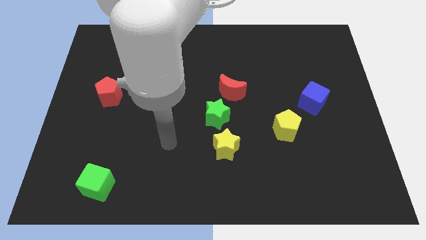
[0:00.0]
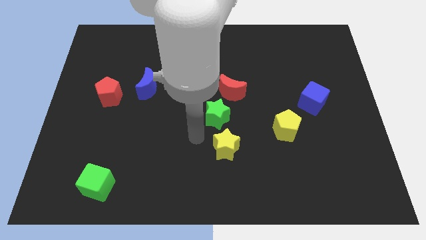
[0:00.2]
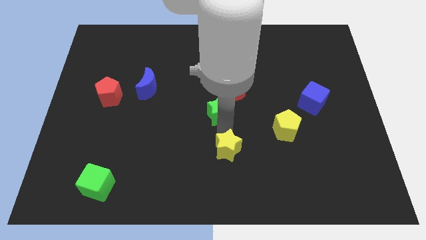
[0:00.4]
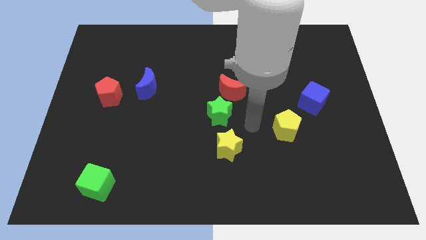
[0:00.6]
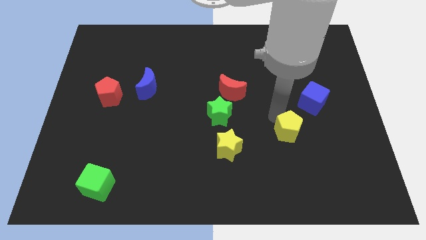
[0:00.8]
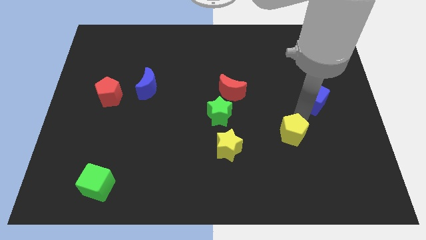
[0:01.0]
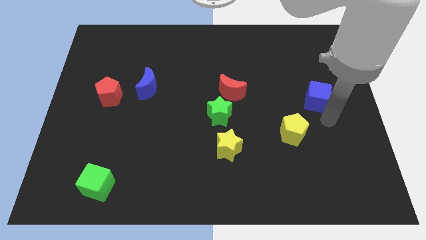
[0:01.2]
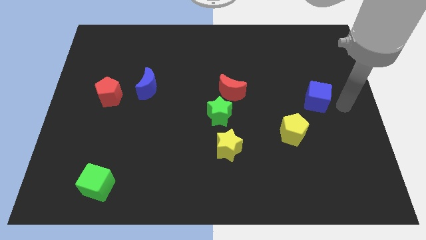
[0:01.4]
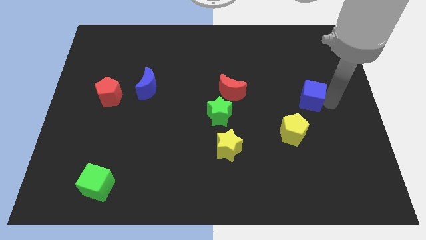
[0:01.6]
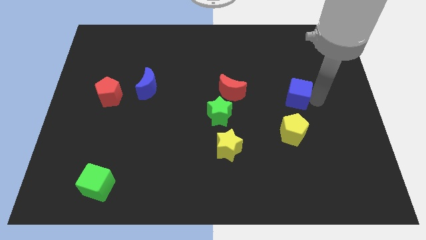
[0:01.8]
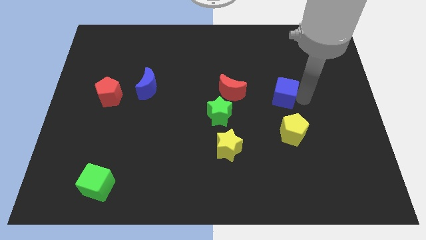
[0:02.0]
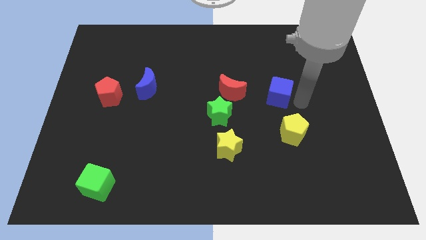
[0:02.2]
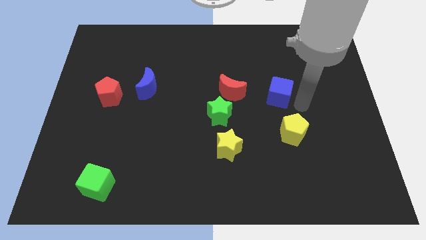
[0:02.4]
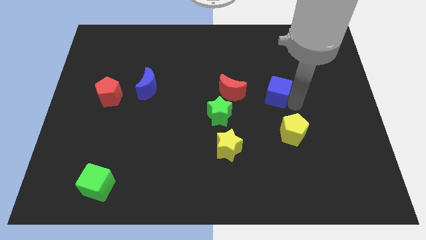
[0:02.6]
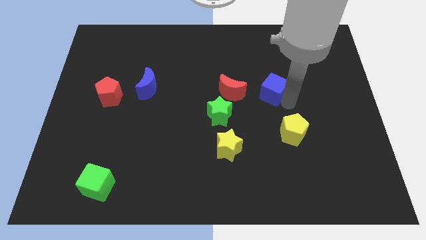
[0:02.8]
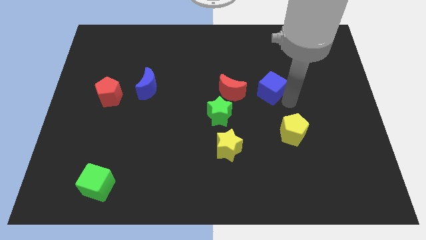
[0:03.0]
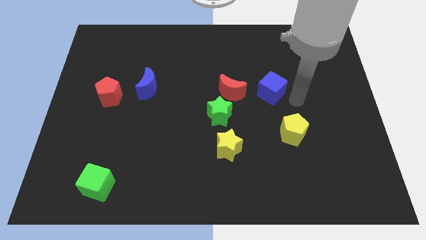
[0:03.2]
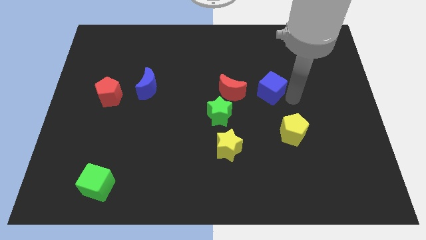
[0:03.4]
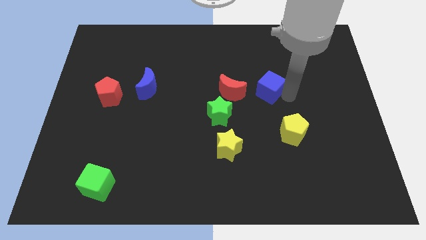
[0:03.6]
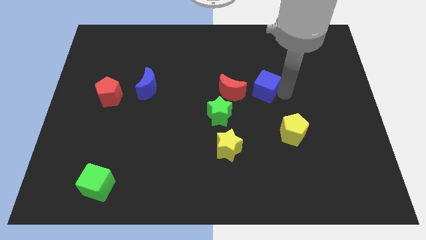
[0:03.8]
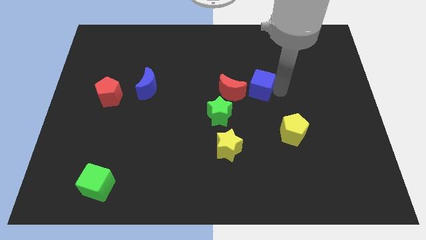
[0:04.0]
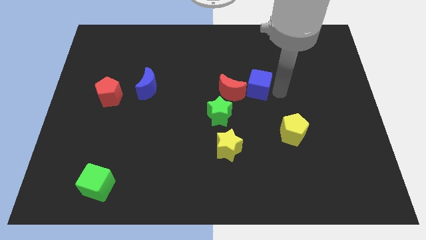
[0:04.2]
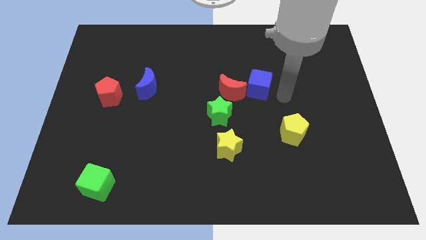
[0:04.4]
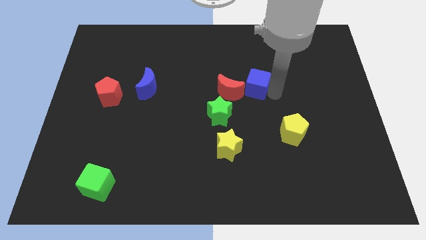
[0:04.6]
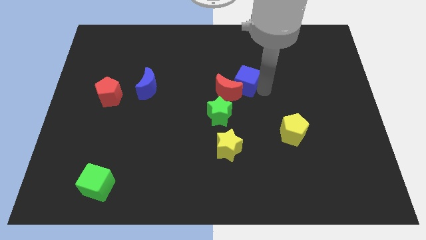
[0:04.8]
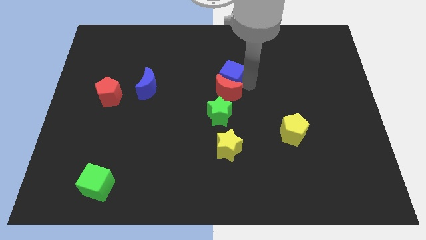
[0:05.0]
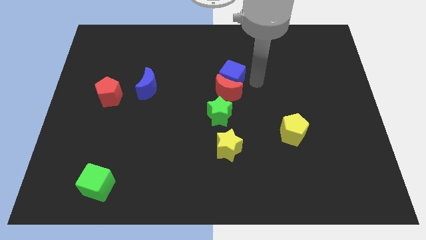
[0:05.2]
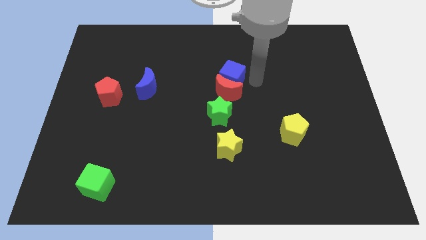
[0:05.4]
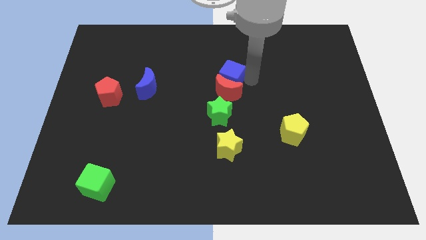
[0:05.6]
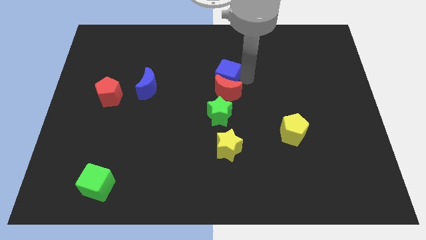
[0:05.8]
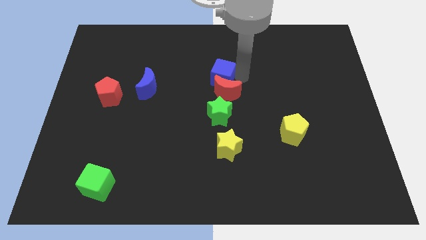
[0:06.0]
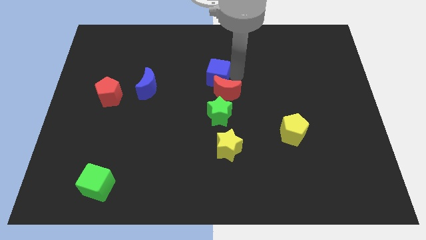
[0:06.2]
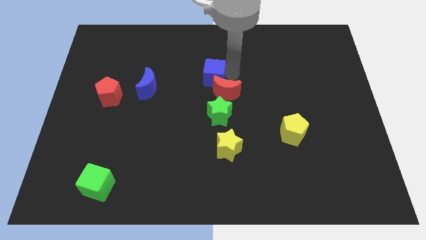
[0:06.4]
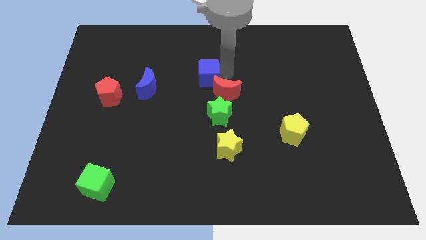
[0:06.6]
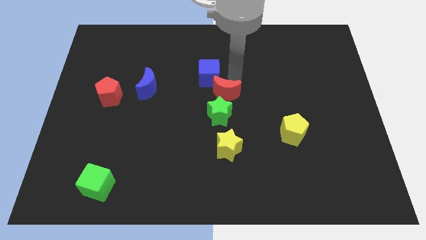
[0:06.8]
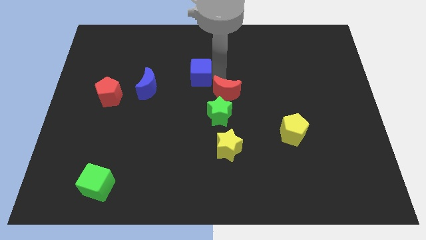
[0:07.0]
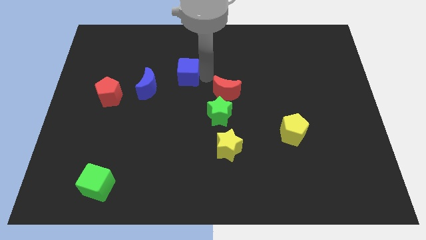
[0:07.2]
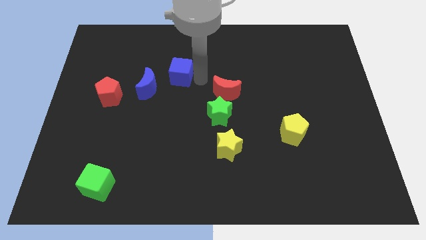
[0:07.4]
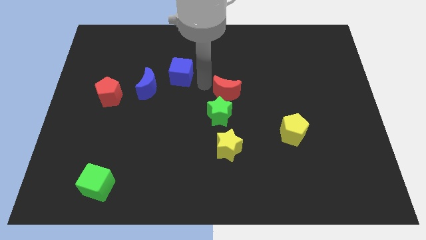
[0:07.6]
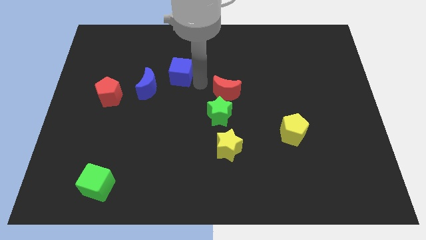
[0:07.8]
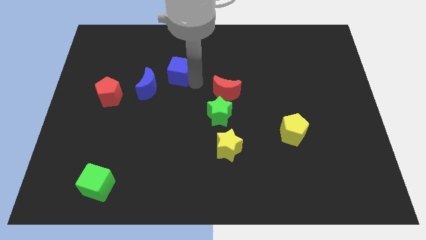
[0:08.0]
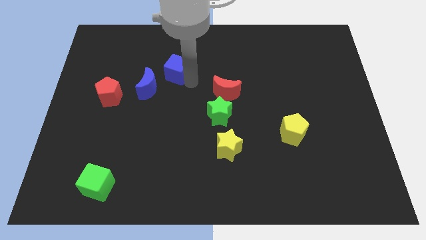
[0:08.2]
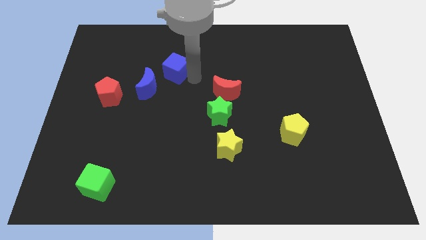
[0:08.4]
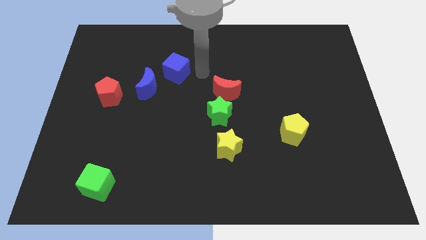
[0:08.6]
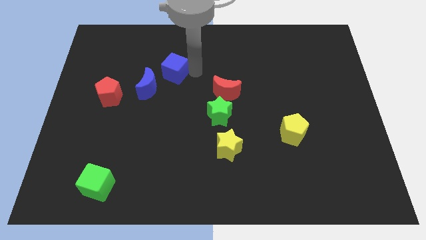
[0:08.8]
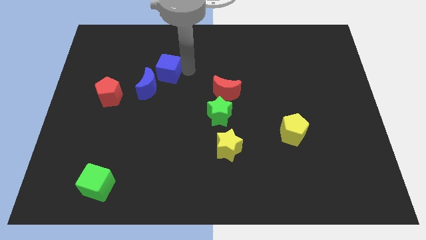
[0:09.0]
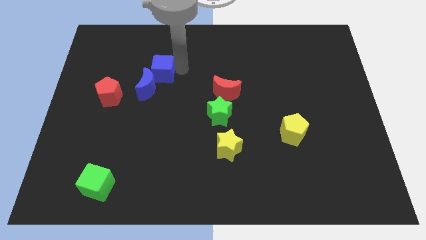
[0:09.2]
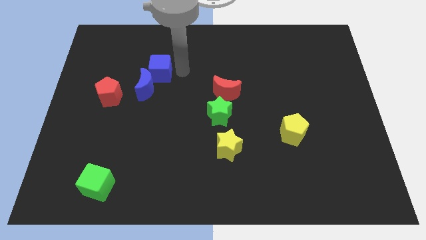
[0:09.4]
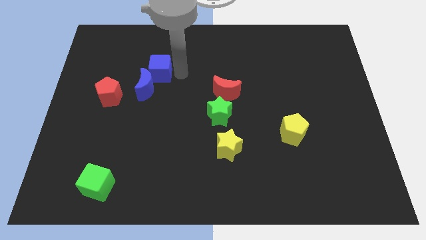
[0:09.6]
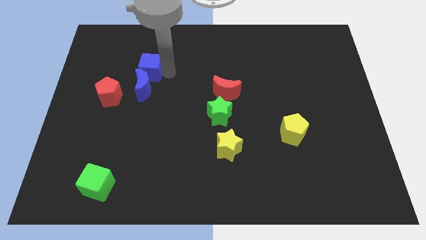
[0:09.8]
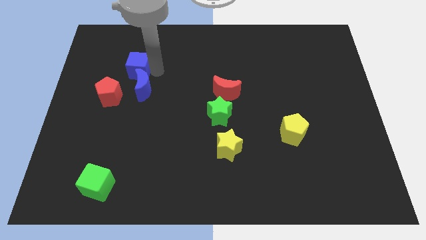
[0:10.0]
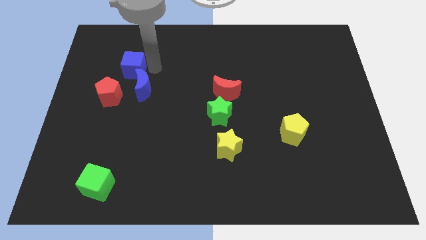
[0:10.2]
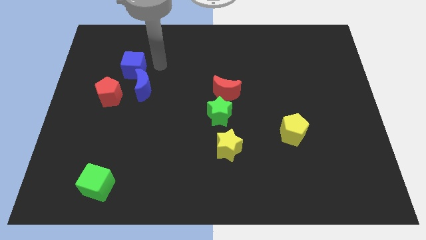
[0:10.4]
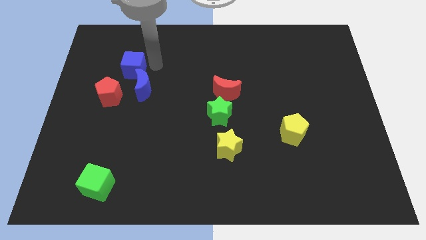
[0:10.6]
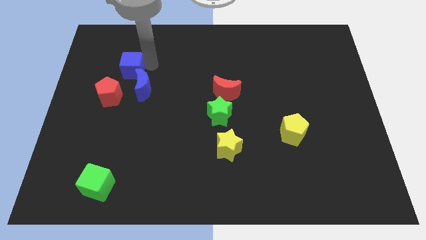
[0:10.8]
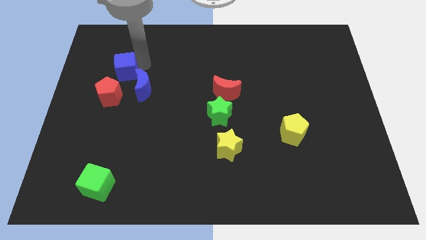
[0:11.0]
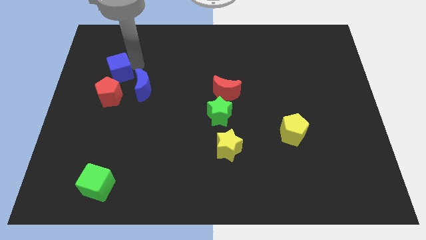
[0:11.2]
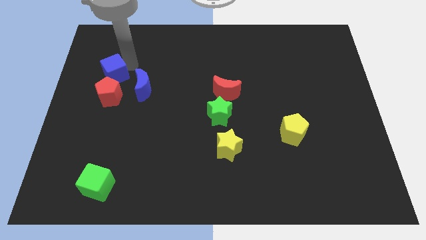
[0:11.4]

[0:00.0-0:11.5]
slide the blue cube to the left of the blue moon

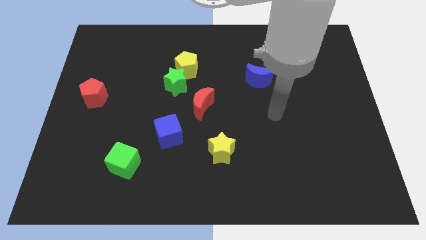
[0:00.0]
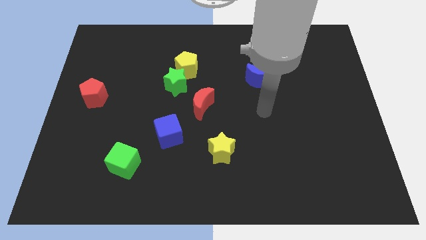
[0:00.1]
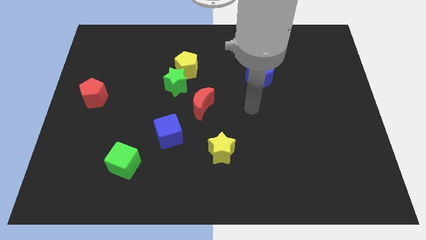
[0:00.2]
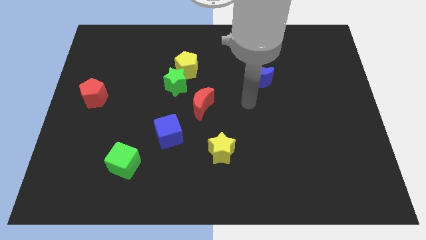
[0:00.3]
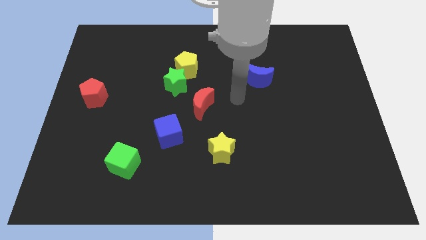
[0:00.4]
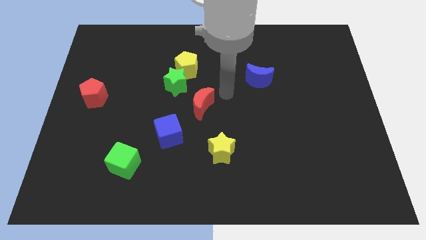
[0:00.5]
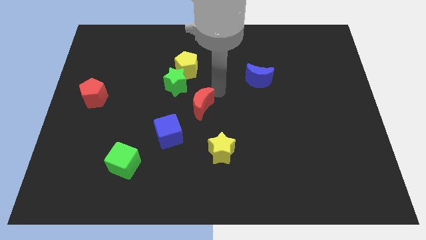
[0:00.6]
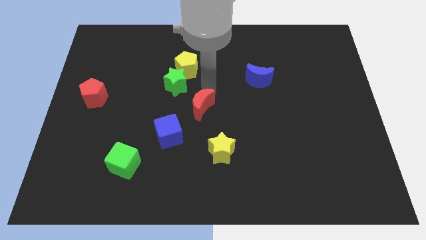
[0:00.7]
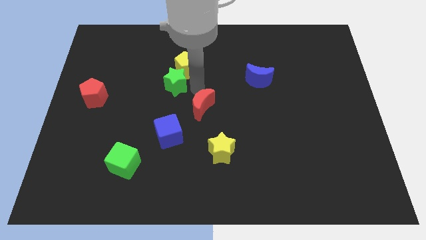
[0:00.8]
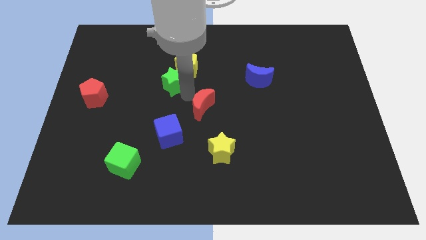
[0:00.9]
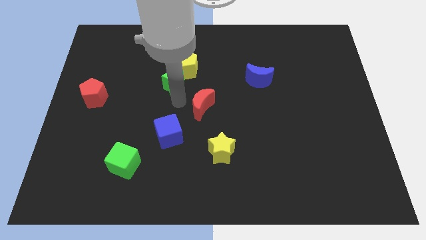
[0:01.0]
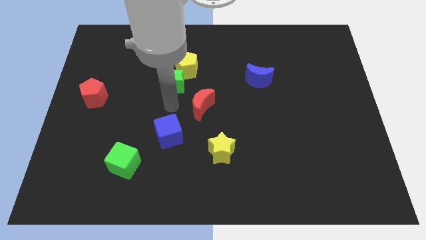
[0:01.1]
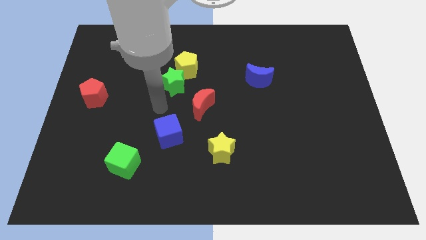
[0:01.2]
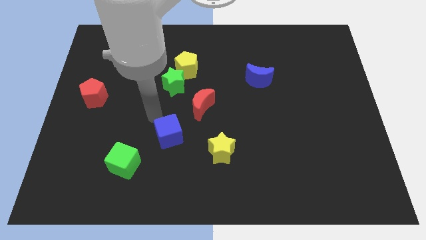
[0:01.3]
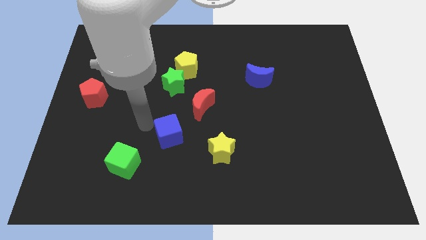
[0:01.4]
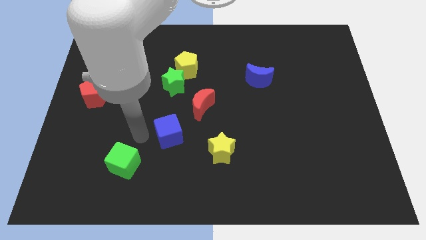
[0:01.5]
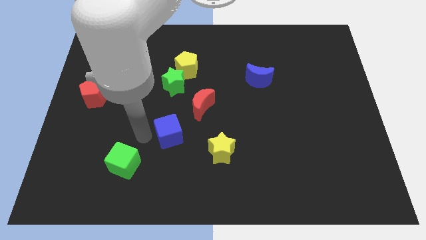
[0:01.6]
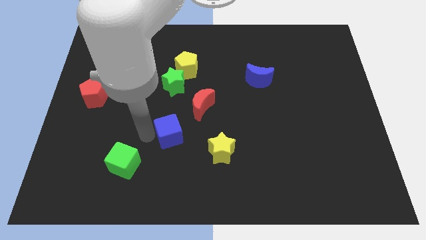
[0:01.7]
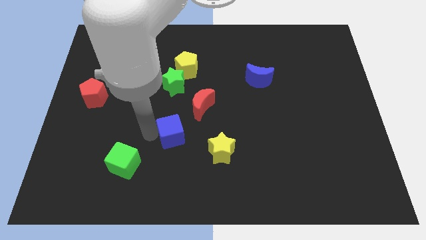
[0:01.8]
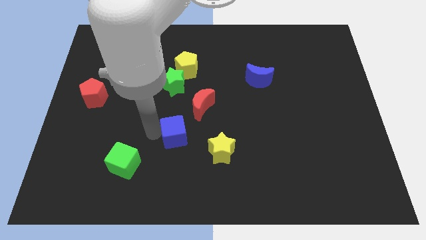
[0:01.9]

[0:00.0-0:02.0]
put the blue cube to the top left side of the yellow star
